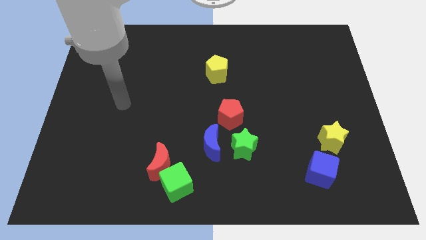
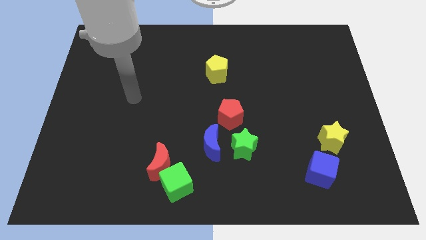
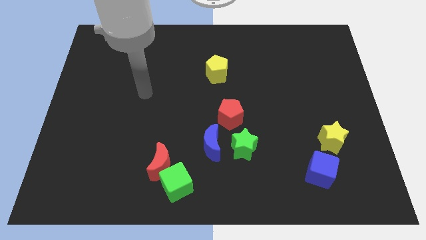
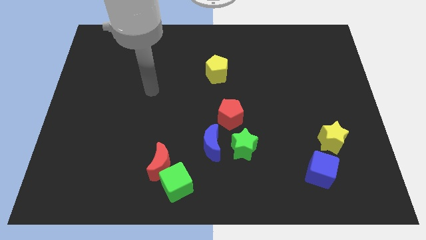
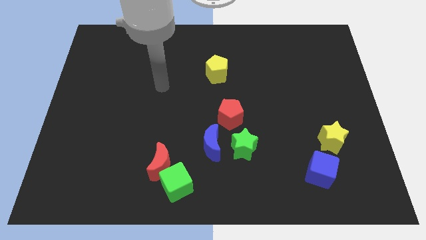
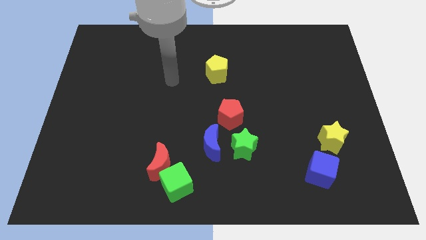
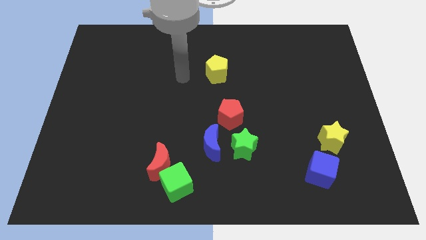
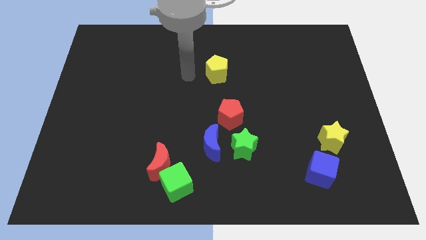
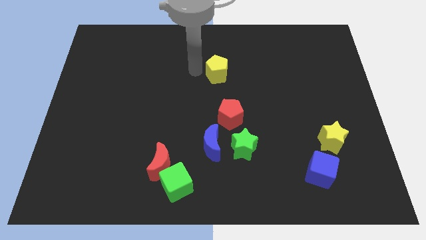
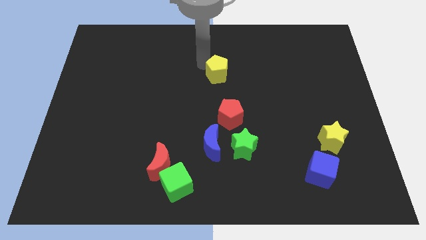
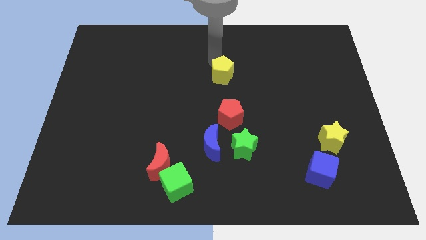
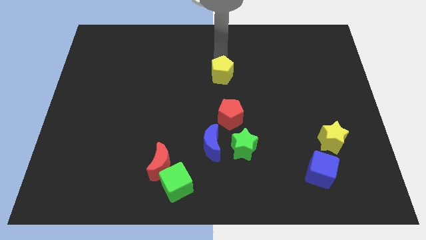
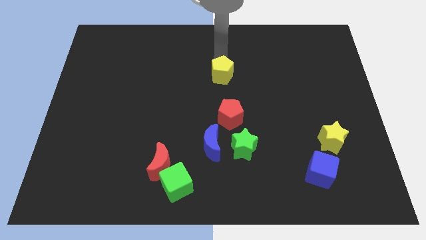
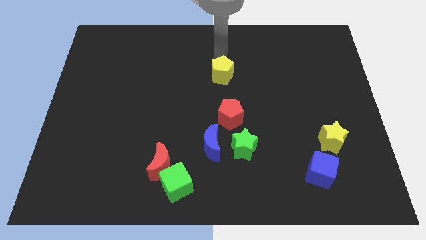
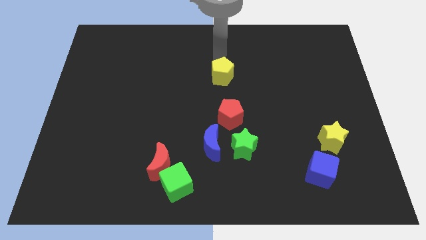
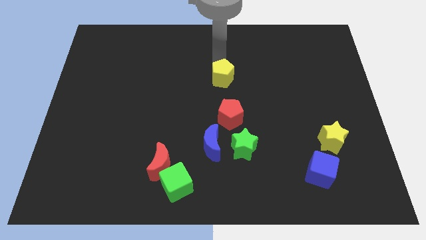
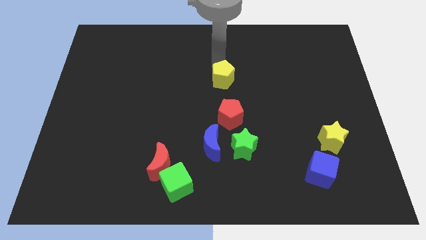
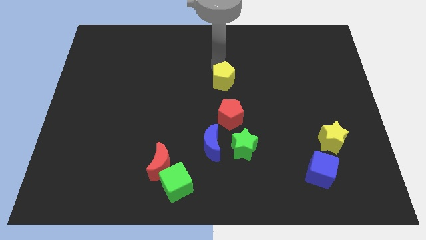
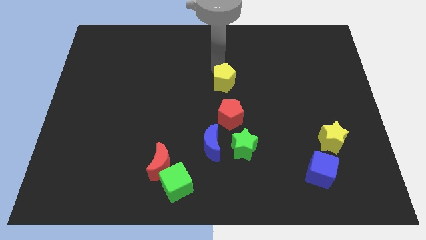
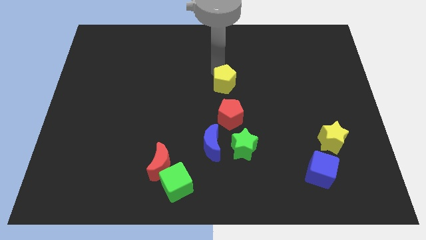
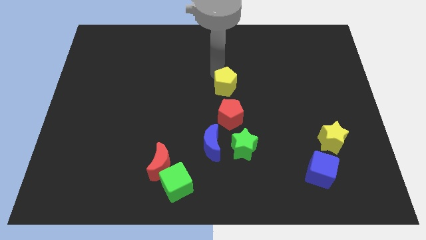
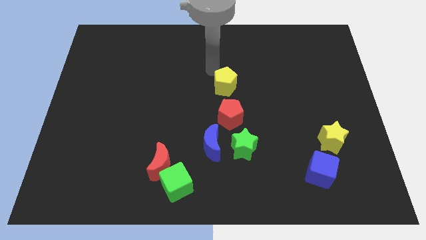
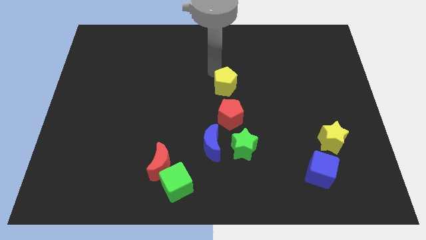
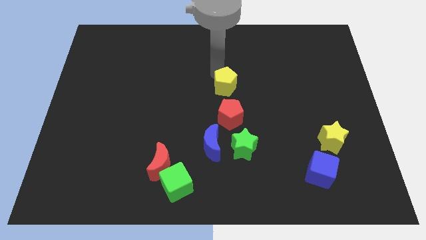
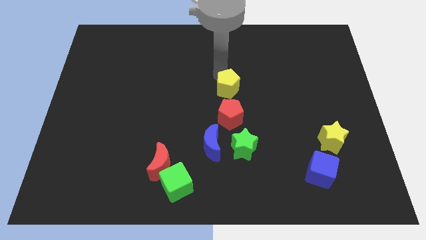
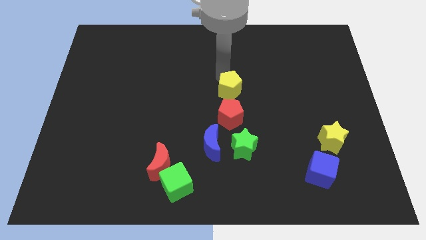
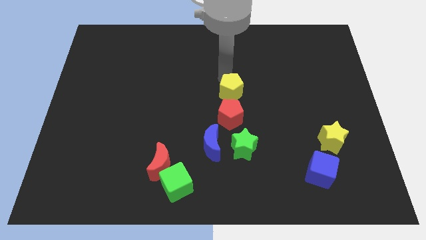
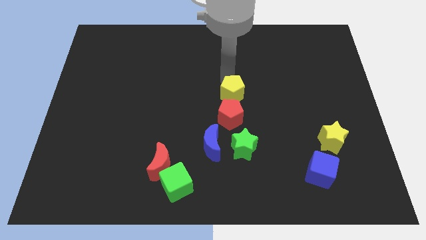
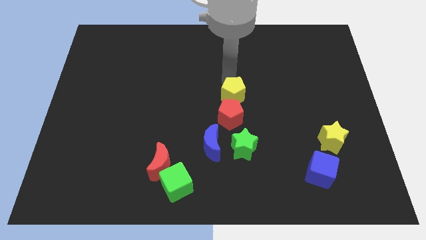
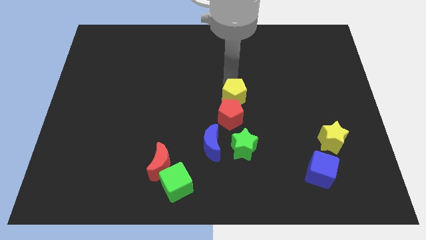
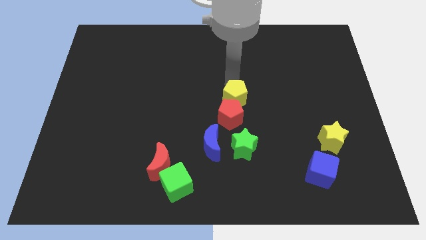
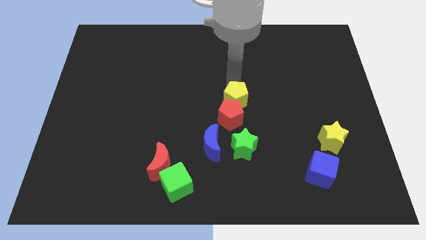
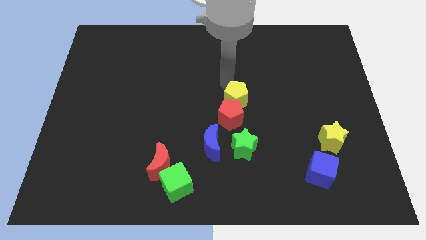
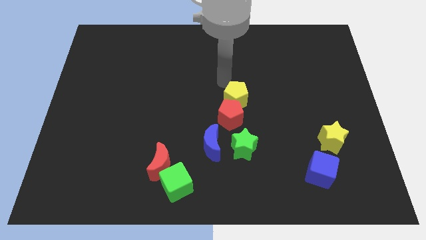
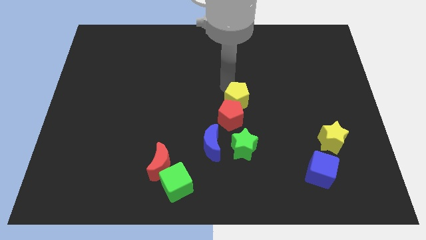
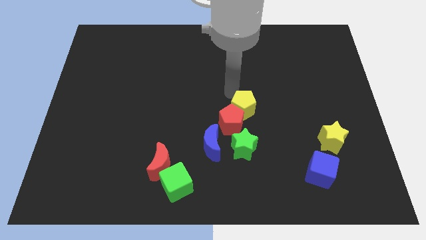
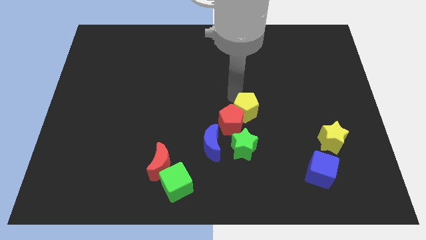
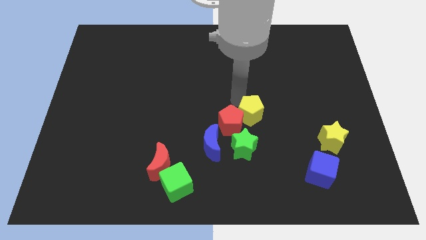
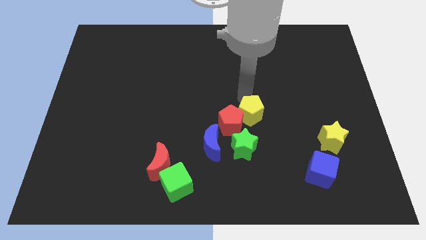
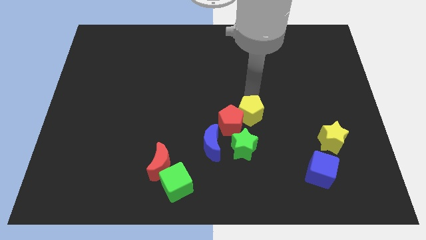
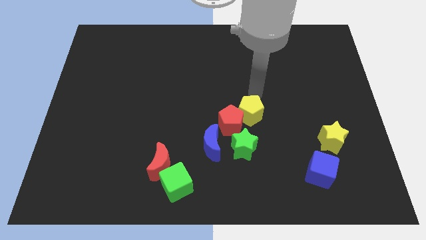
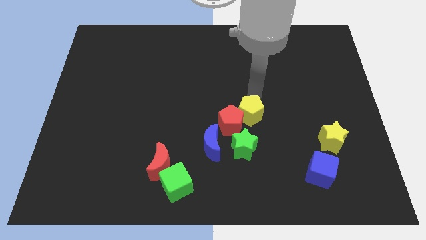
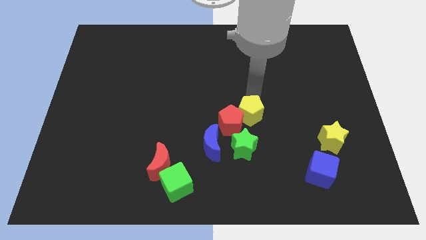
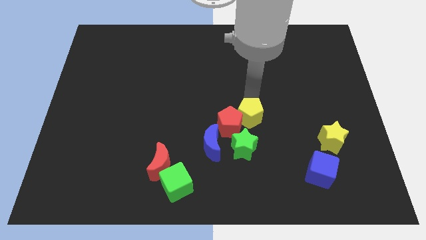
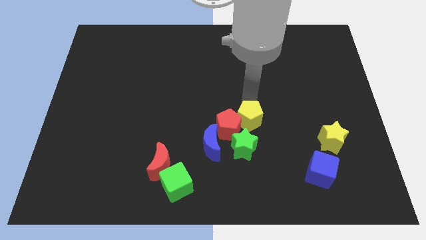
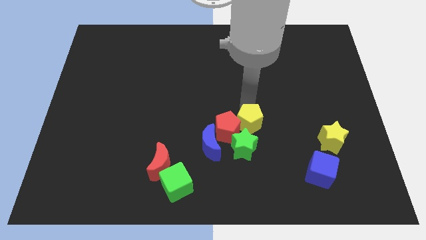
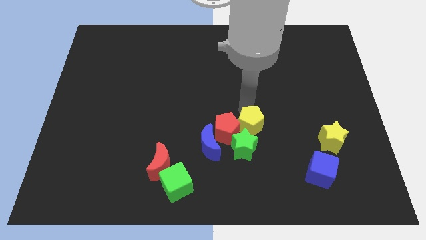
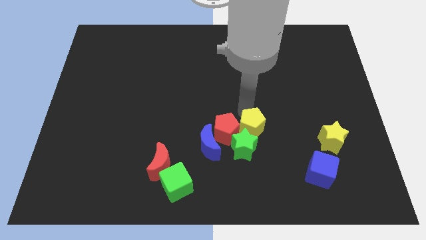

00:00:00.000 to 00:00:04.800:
move the yellow pentagon towards the green star

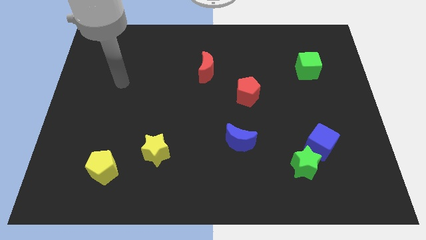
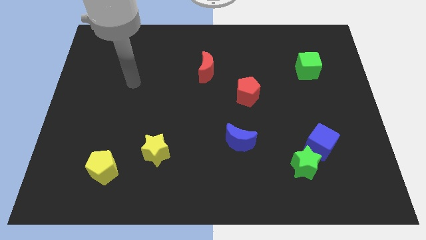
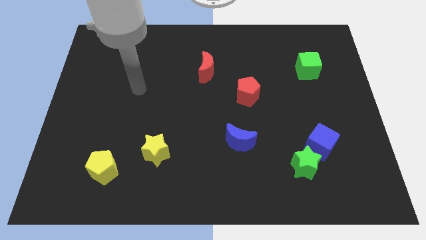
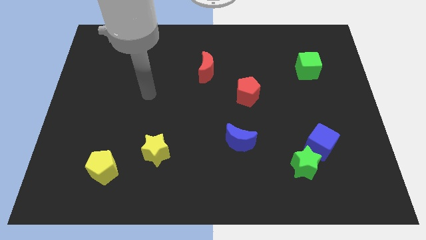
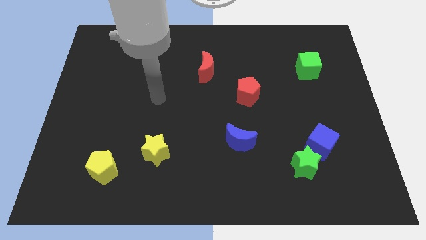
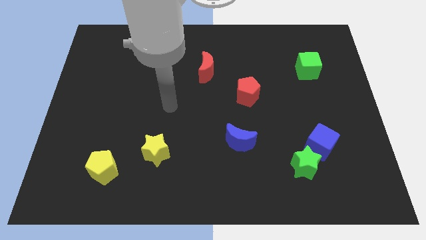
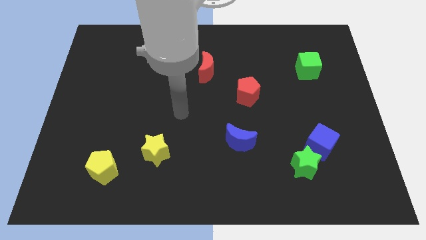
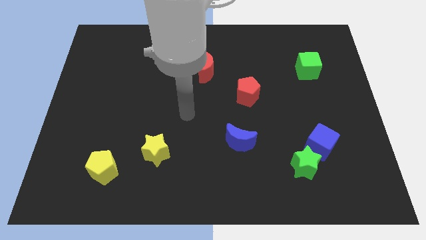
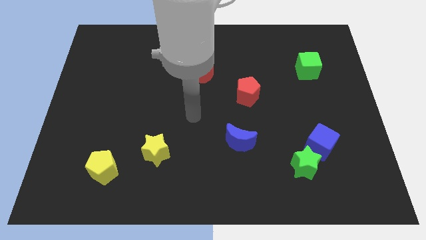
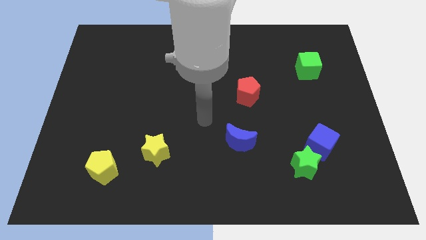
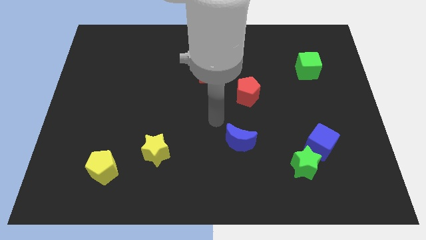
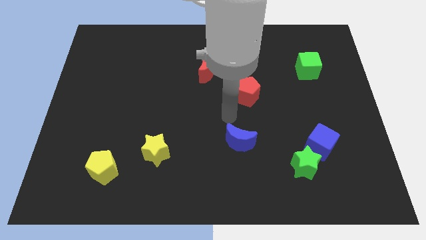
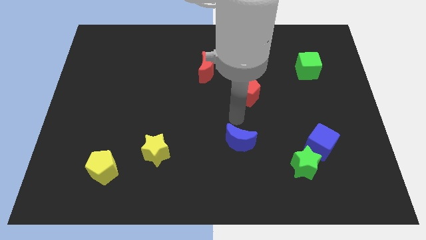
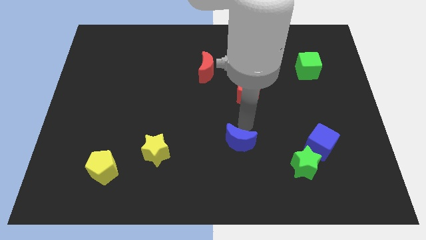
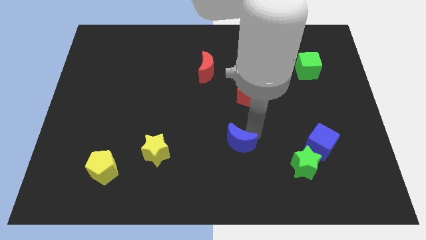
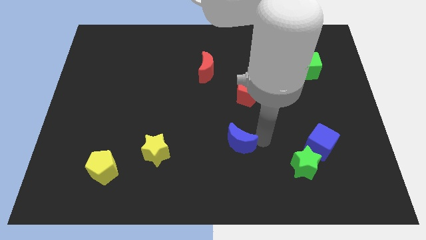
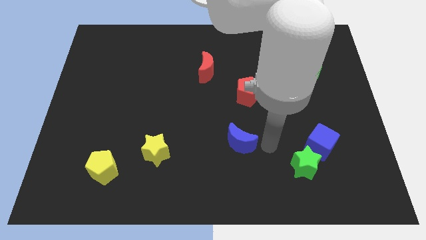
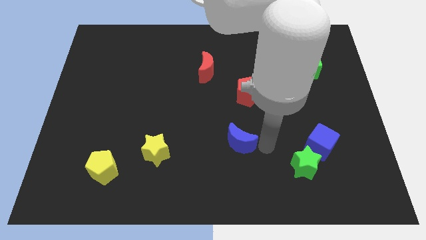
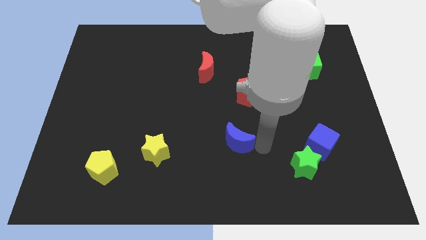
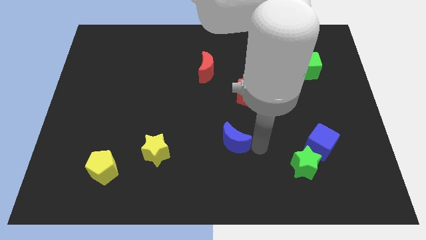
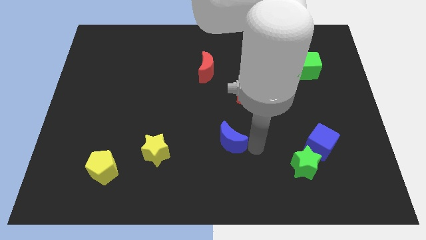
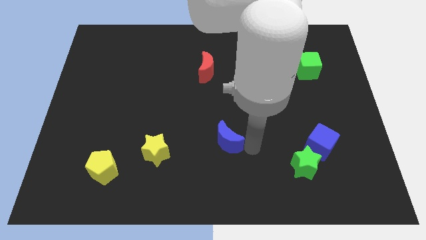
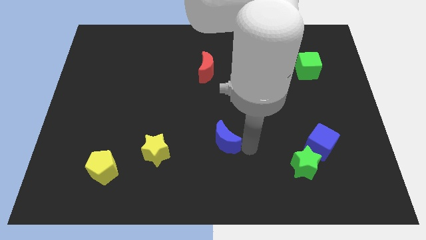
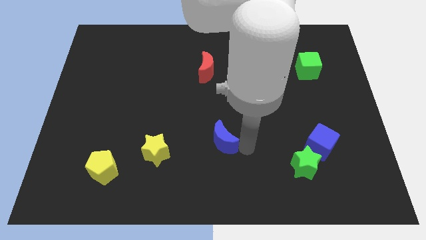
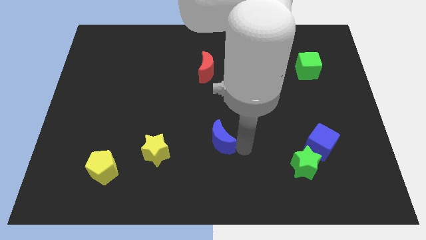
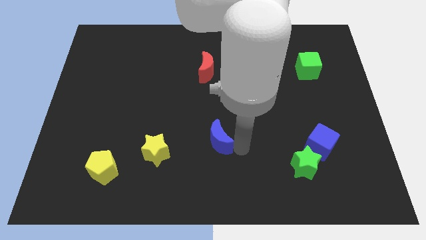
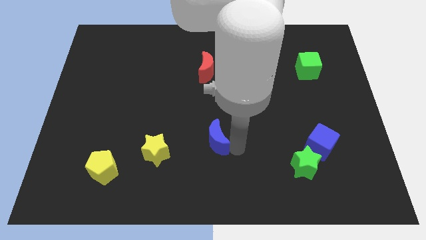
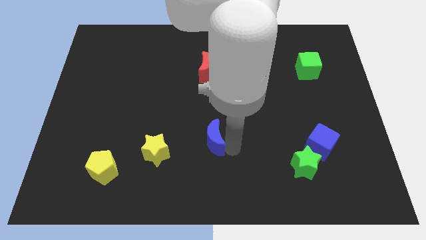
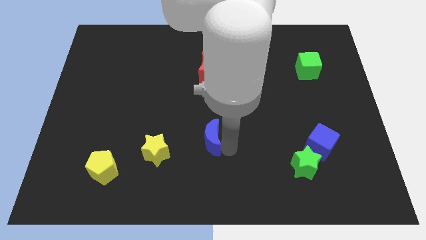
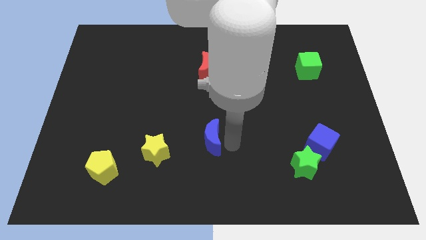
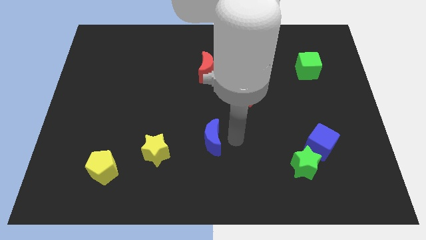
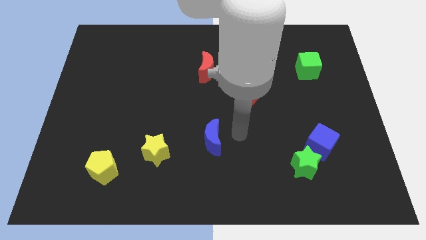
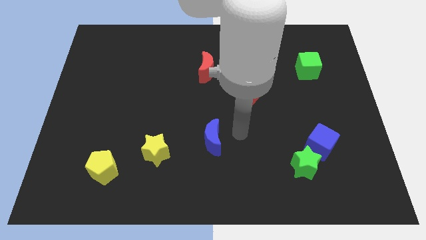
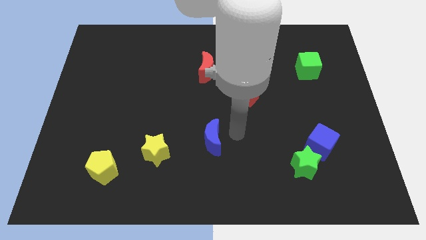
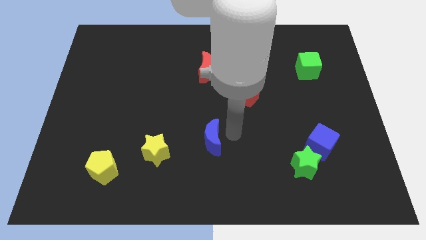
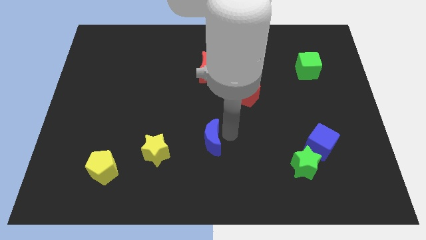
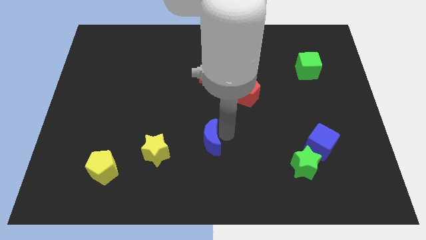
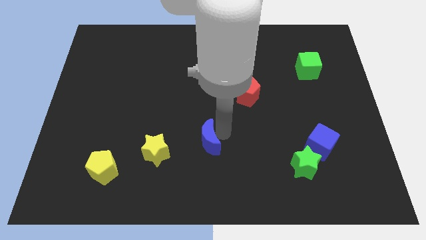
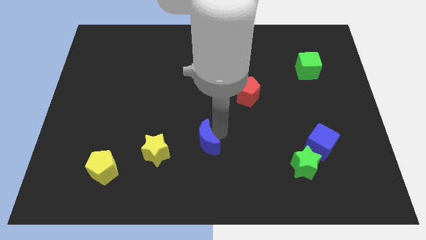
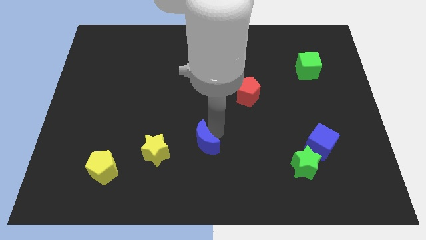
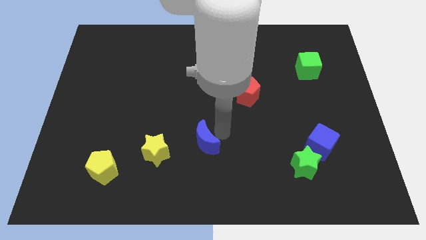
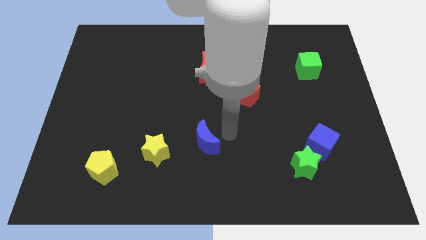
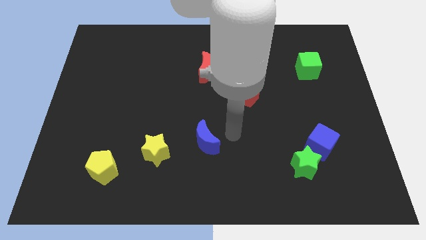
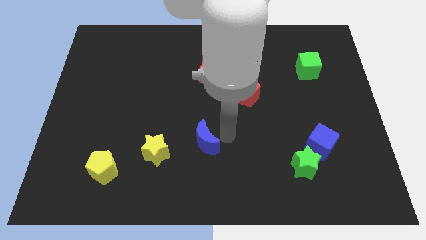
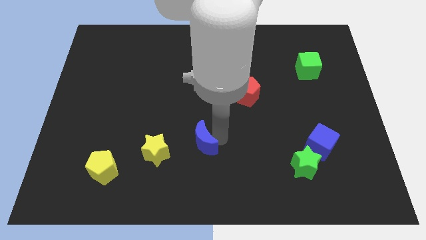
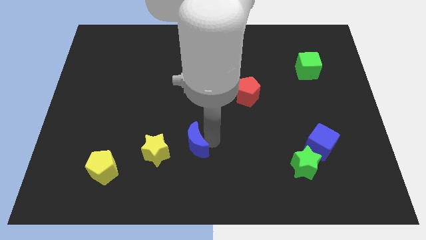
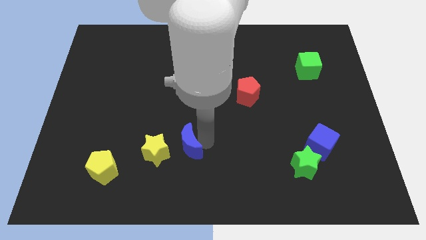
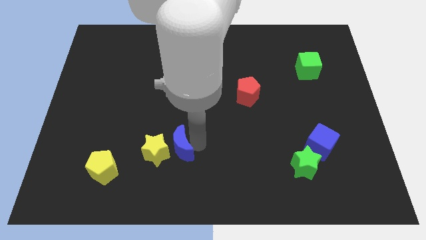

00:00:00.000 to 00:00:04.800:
put the blue moon close to the yellow star
